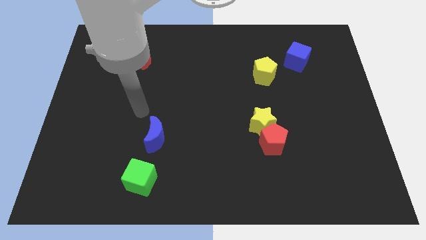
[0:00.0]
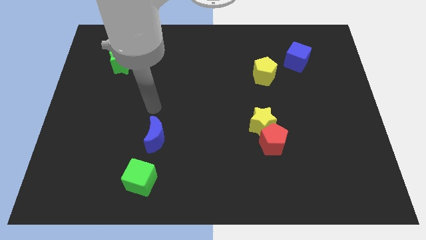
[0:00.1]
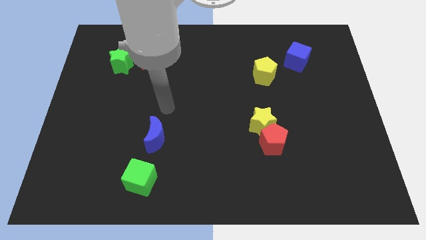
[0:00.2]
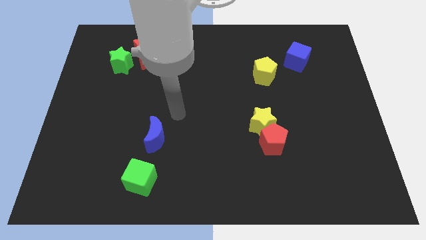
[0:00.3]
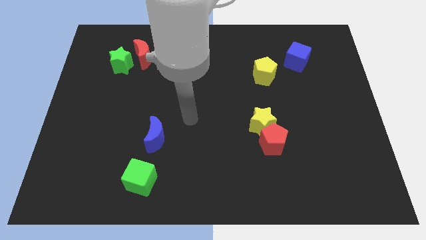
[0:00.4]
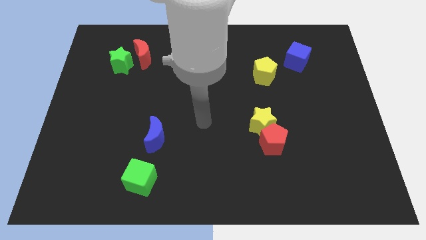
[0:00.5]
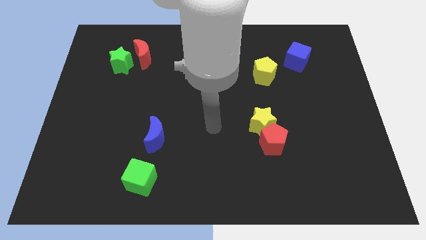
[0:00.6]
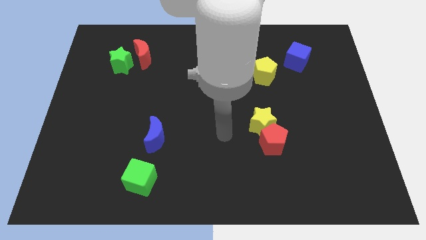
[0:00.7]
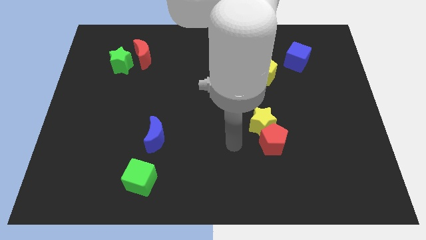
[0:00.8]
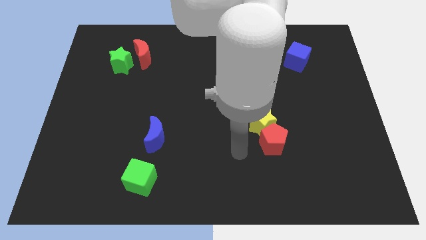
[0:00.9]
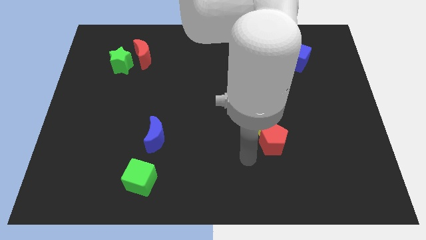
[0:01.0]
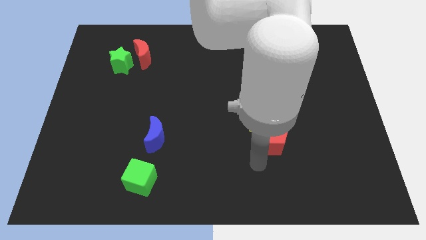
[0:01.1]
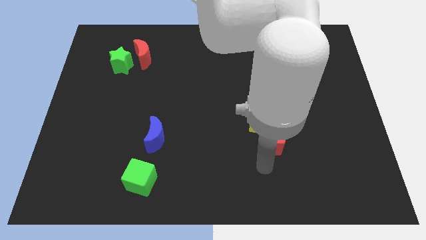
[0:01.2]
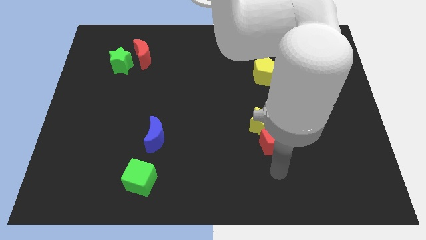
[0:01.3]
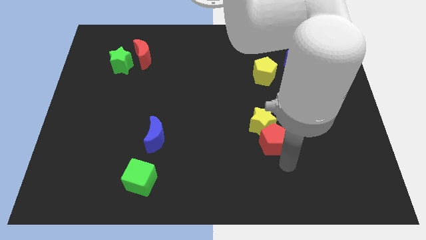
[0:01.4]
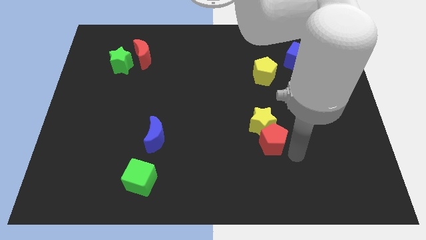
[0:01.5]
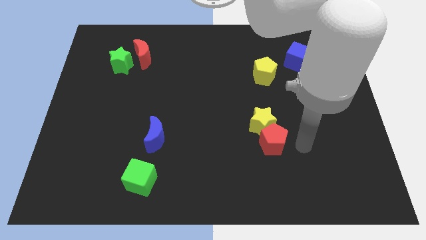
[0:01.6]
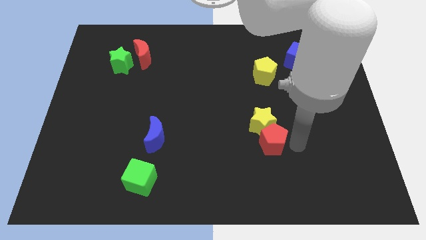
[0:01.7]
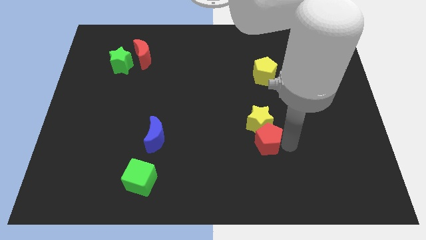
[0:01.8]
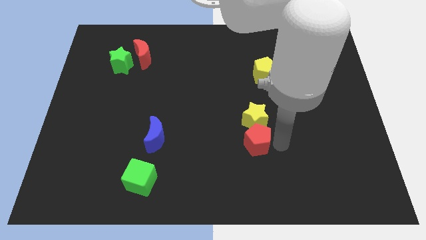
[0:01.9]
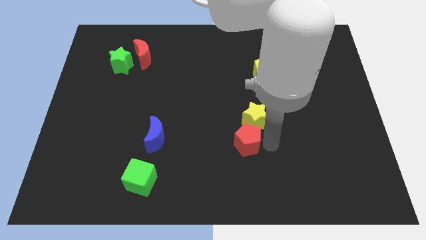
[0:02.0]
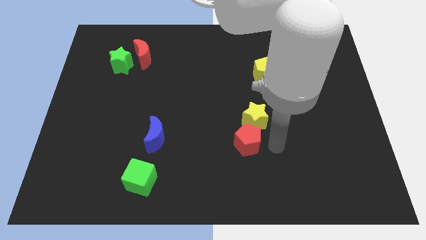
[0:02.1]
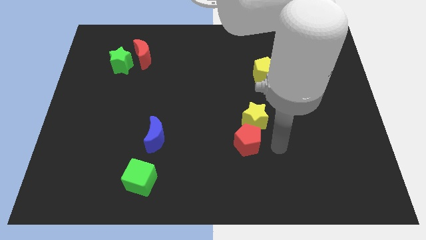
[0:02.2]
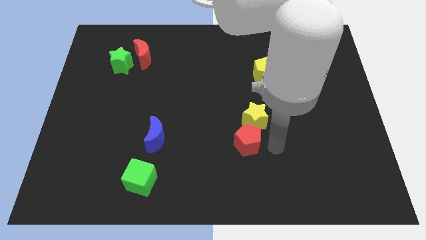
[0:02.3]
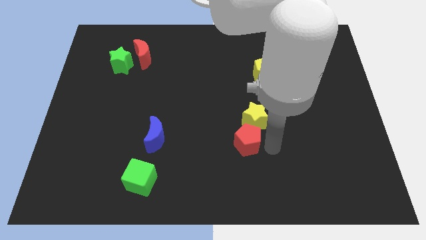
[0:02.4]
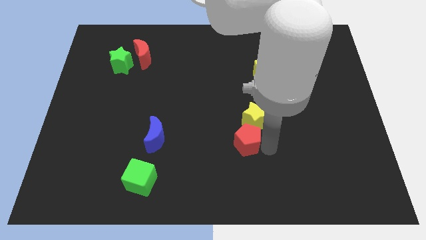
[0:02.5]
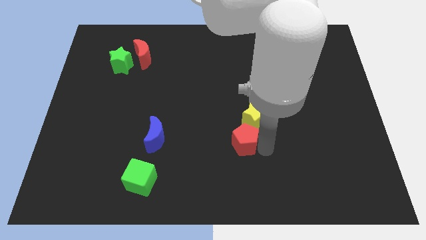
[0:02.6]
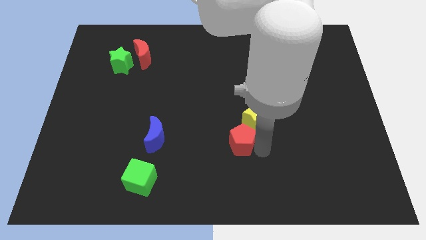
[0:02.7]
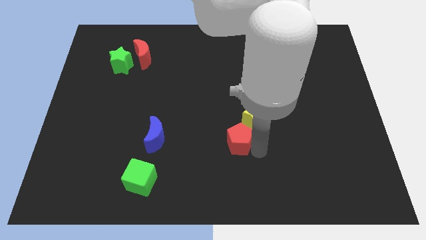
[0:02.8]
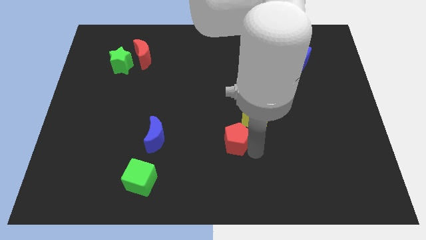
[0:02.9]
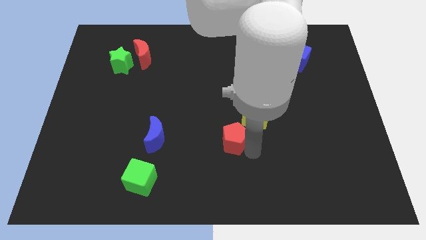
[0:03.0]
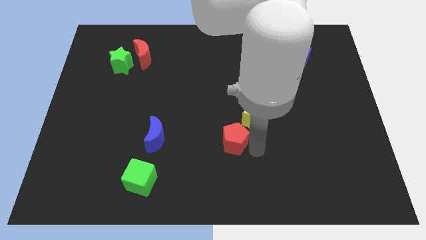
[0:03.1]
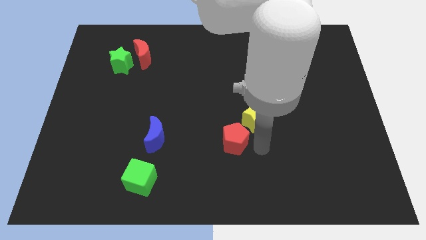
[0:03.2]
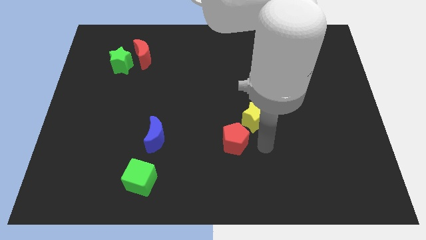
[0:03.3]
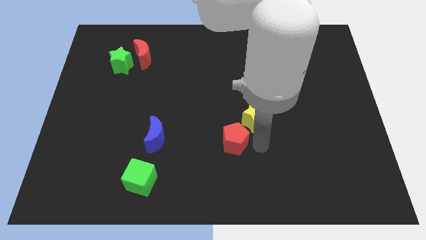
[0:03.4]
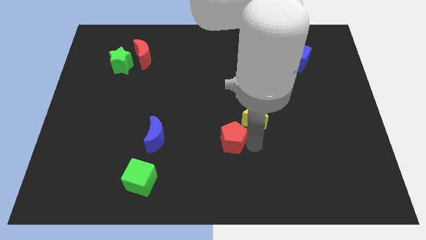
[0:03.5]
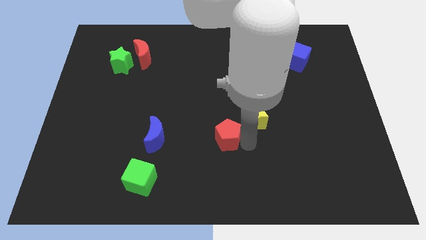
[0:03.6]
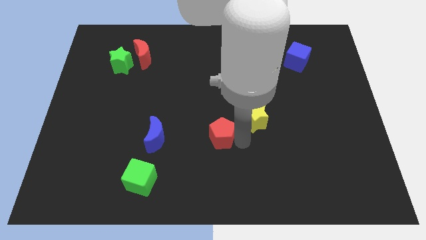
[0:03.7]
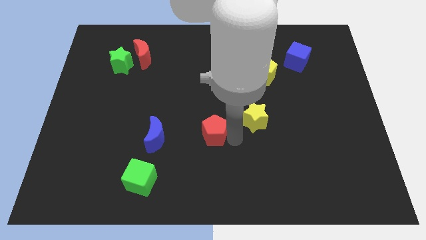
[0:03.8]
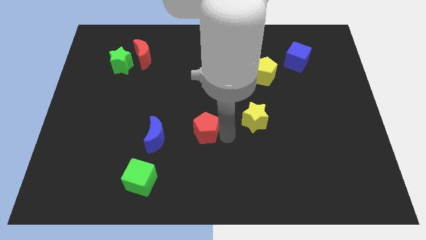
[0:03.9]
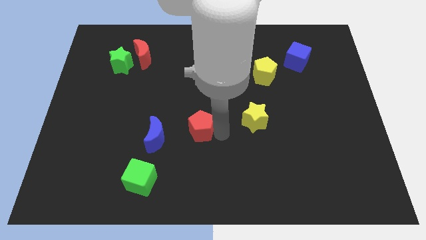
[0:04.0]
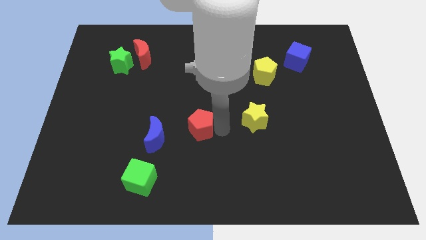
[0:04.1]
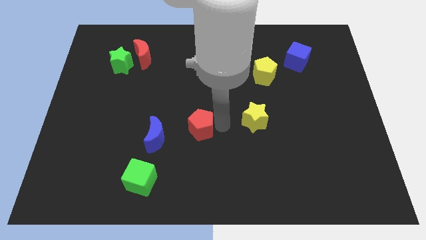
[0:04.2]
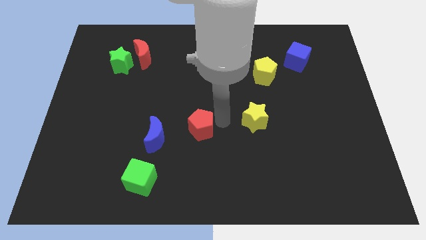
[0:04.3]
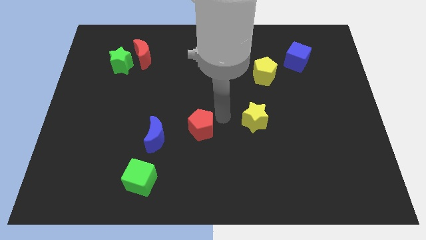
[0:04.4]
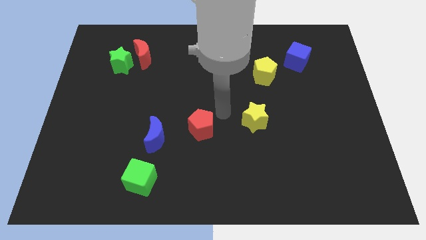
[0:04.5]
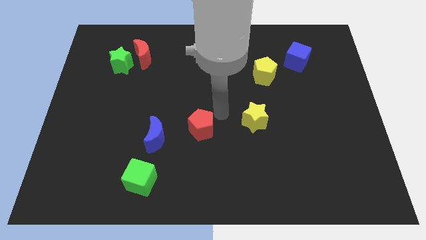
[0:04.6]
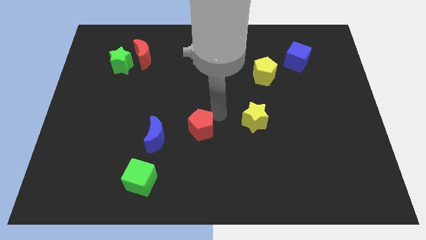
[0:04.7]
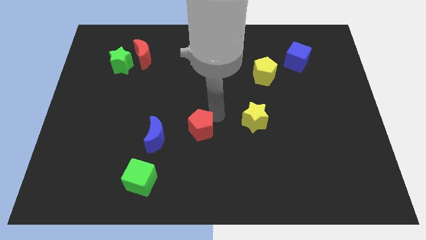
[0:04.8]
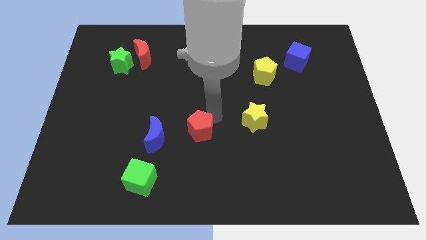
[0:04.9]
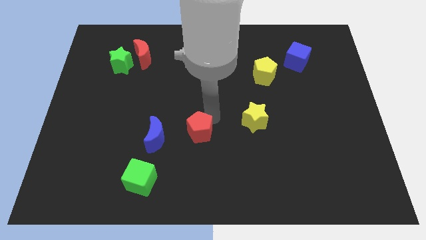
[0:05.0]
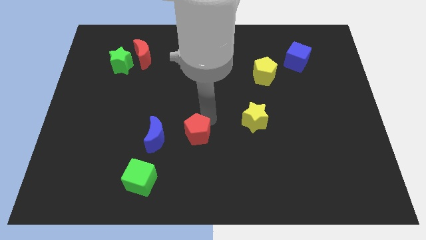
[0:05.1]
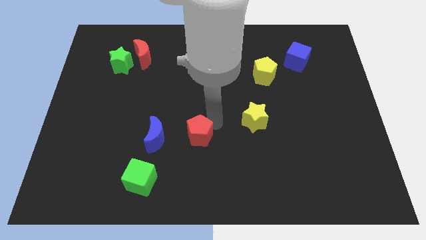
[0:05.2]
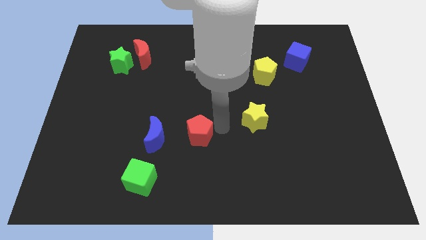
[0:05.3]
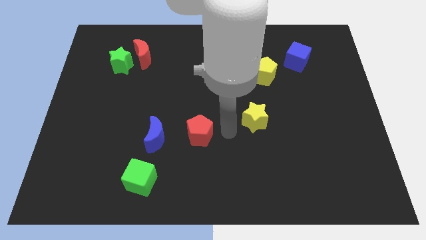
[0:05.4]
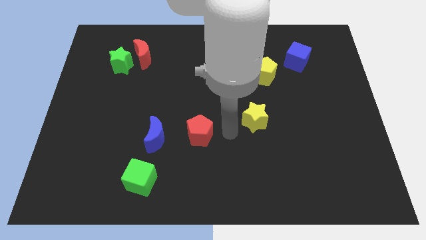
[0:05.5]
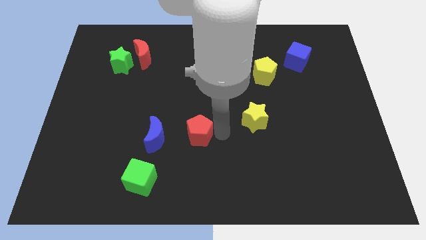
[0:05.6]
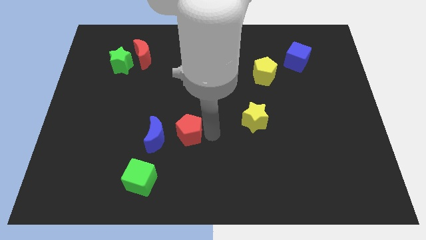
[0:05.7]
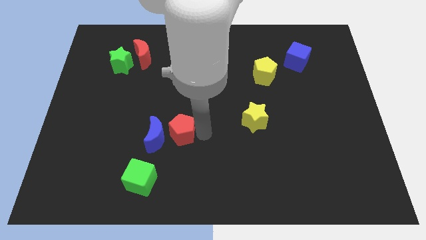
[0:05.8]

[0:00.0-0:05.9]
push the red pentagon next to the blue moon

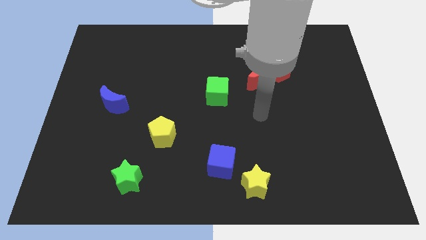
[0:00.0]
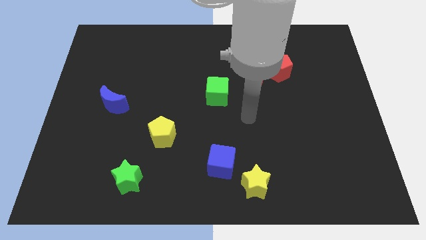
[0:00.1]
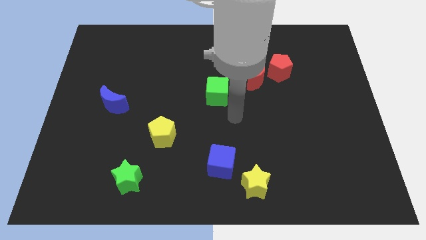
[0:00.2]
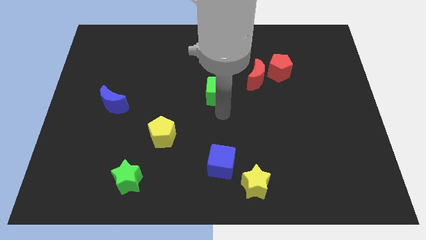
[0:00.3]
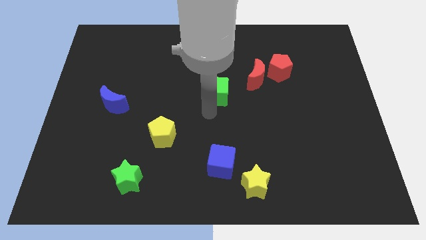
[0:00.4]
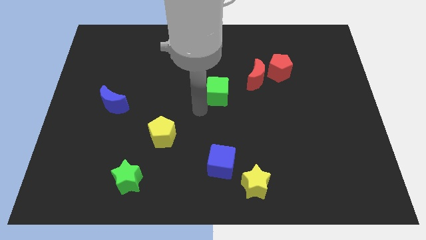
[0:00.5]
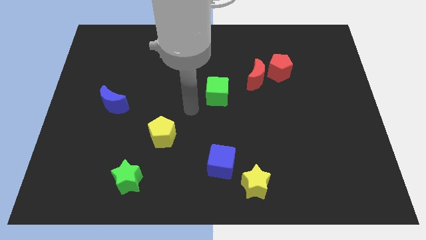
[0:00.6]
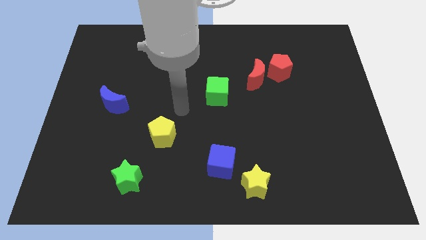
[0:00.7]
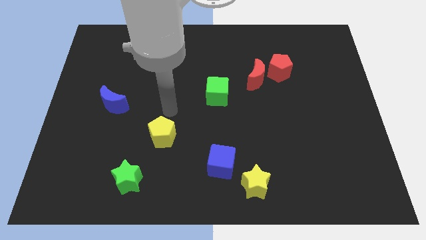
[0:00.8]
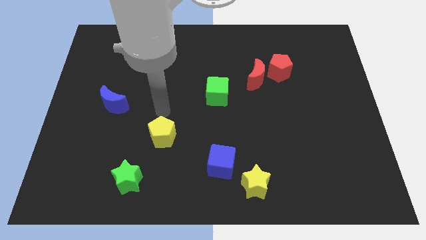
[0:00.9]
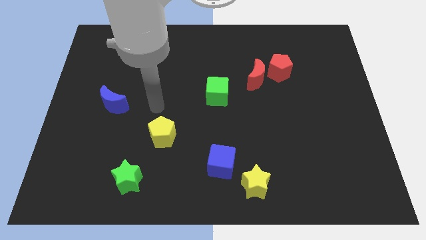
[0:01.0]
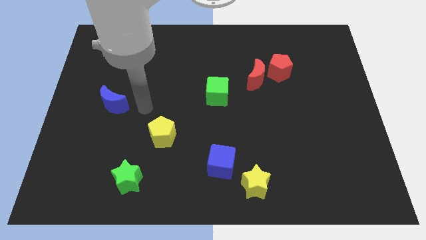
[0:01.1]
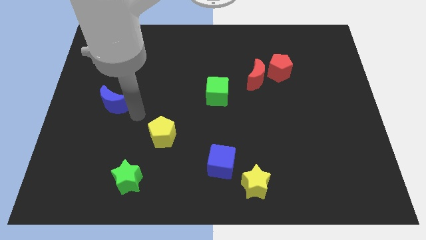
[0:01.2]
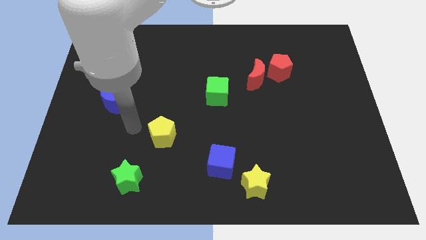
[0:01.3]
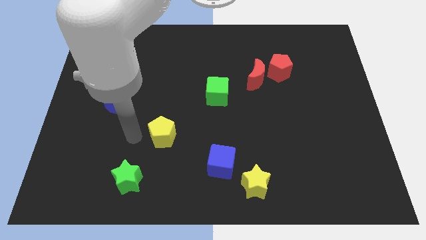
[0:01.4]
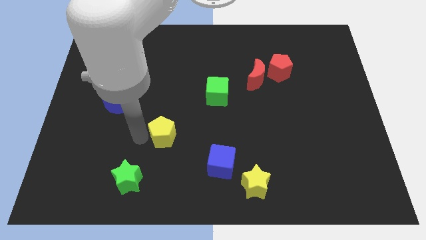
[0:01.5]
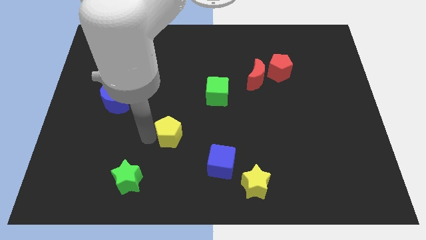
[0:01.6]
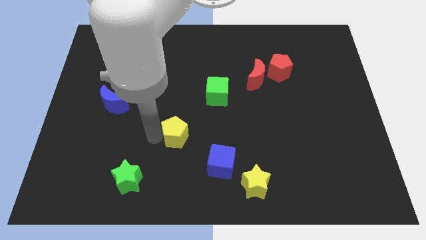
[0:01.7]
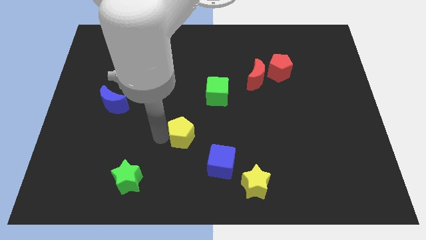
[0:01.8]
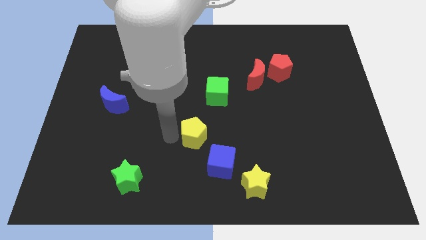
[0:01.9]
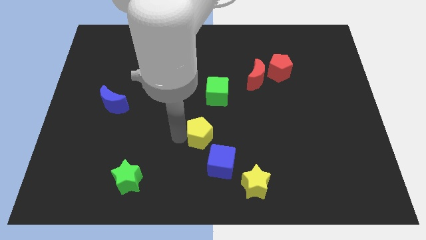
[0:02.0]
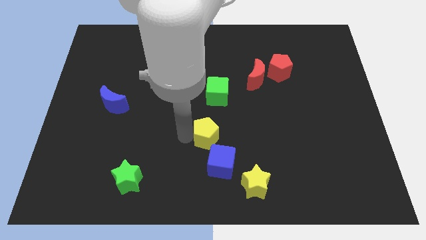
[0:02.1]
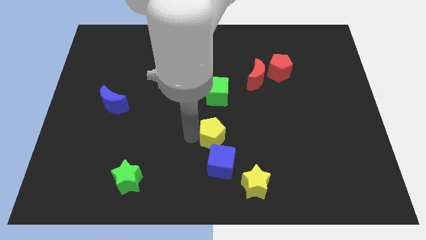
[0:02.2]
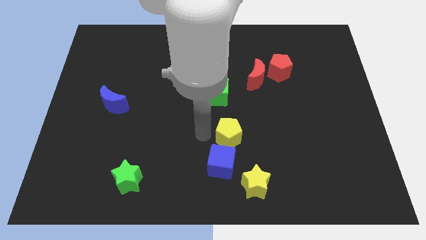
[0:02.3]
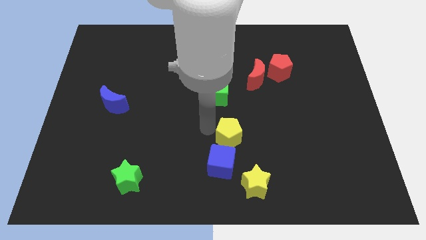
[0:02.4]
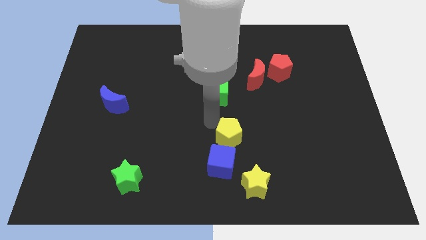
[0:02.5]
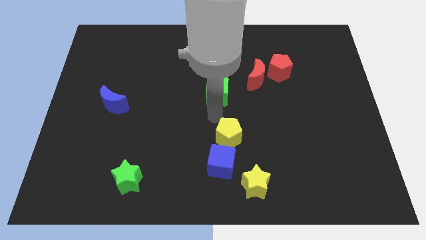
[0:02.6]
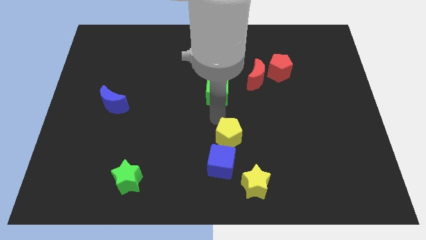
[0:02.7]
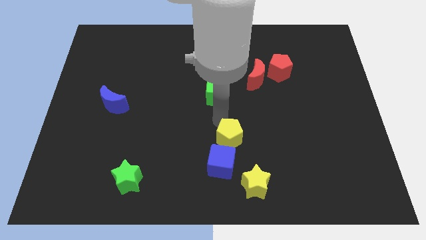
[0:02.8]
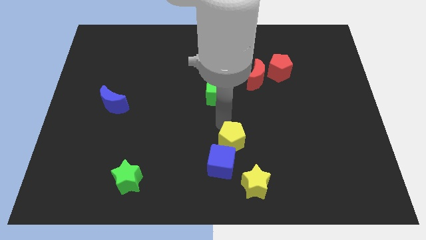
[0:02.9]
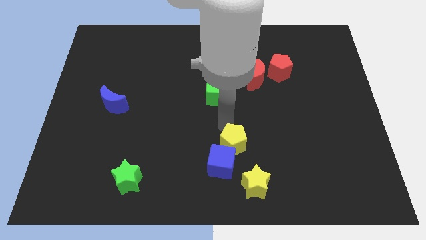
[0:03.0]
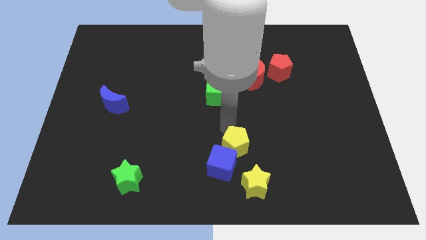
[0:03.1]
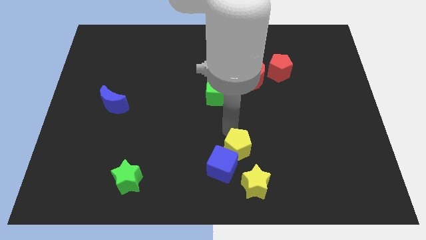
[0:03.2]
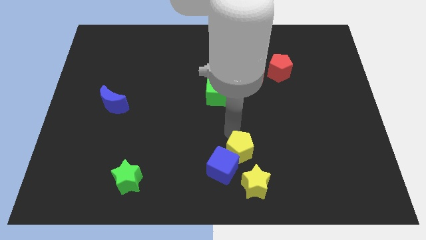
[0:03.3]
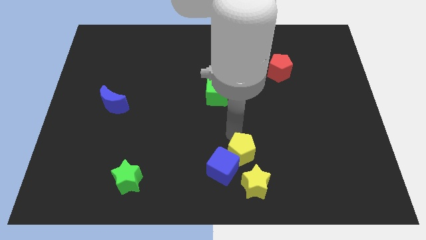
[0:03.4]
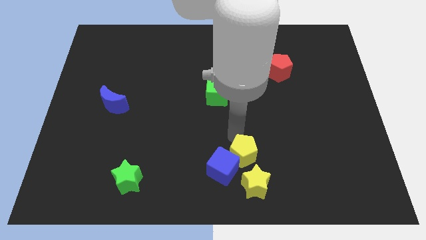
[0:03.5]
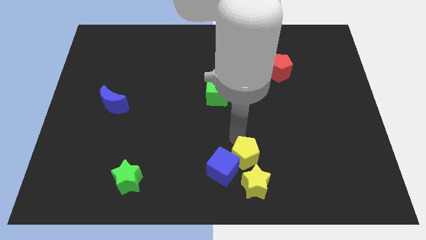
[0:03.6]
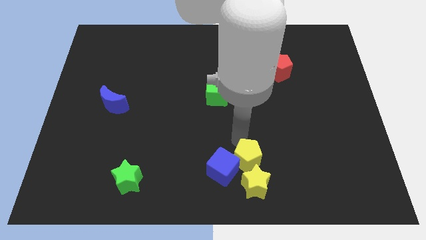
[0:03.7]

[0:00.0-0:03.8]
put the yellow pentagon close to the yellow star
